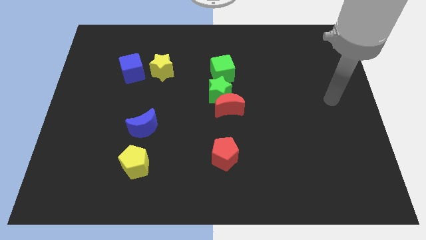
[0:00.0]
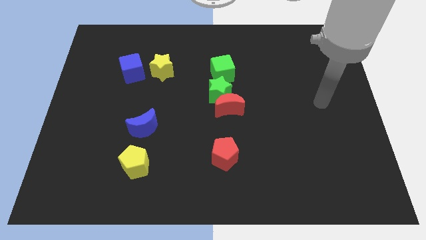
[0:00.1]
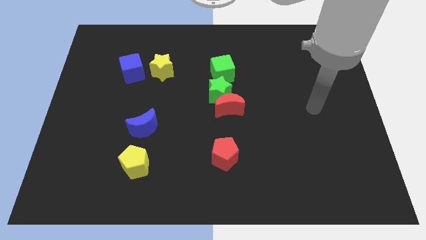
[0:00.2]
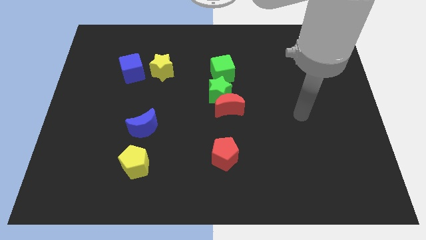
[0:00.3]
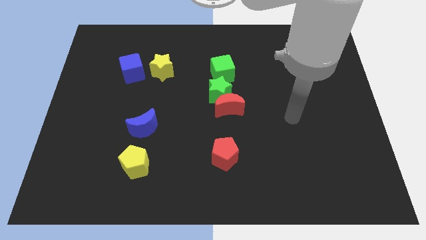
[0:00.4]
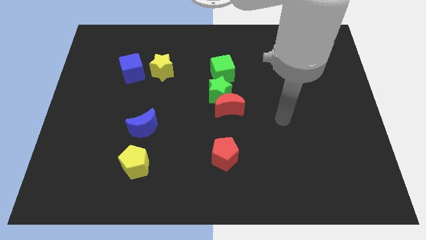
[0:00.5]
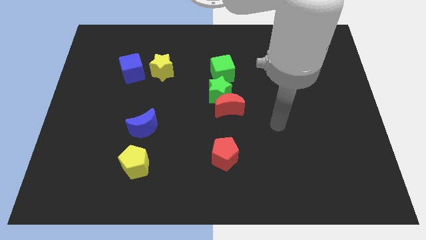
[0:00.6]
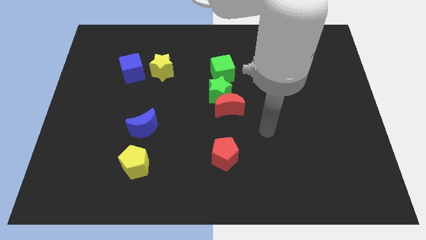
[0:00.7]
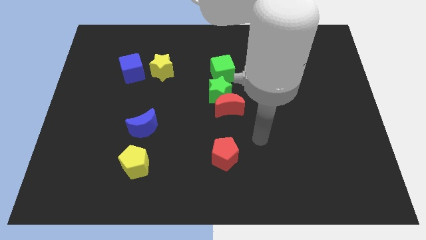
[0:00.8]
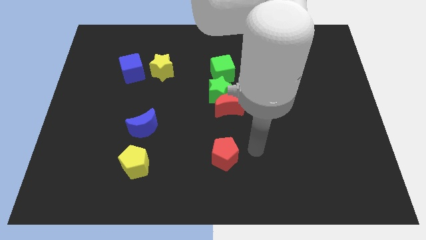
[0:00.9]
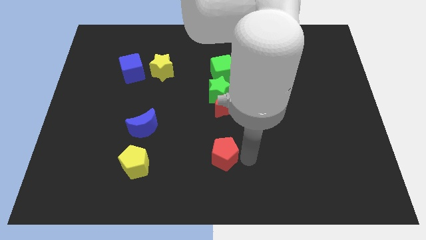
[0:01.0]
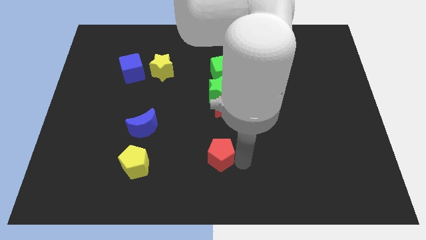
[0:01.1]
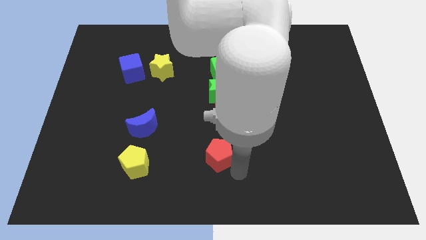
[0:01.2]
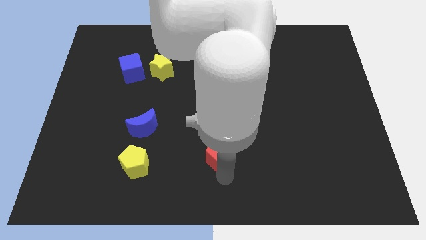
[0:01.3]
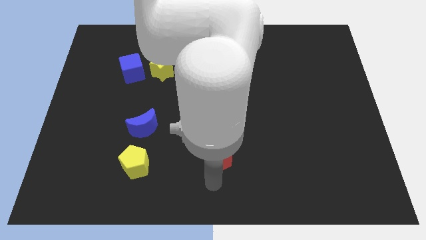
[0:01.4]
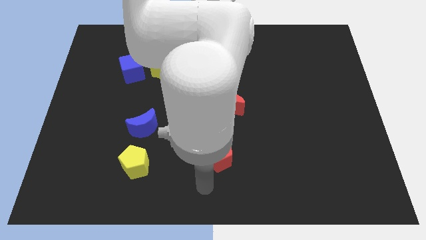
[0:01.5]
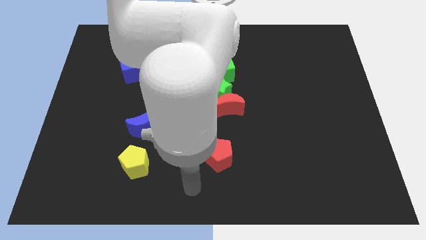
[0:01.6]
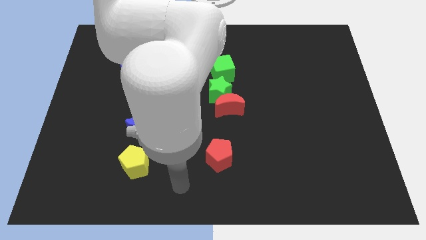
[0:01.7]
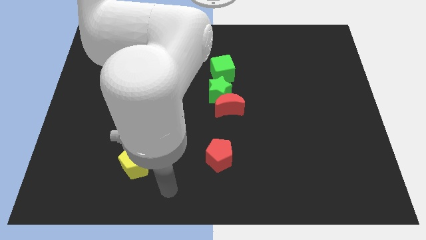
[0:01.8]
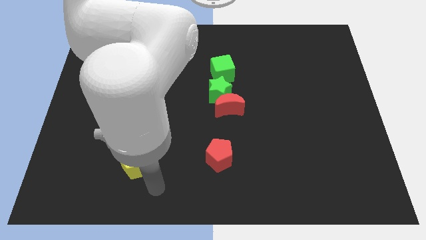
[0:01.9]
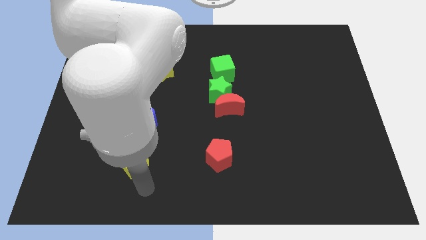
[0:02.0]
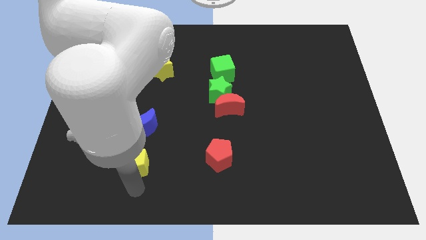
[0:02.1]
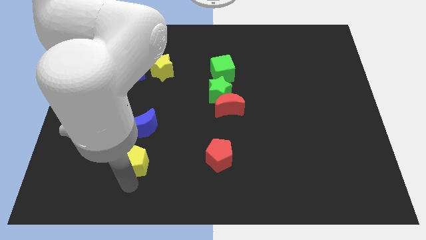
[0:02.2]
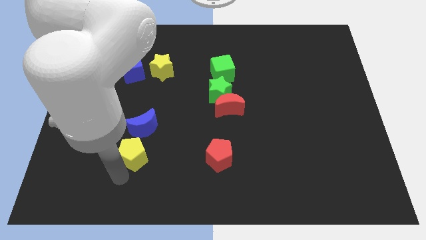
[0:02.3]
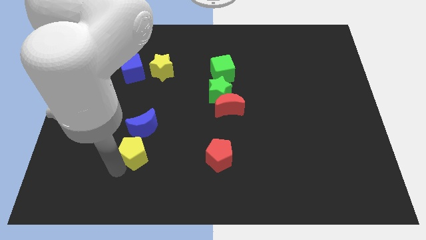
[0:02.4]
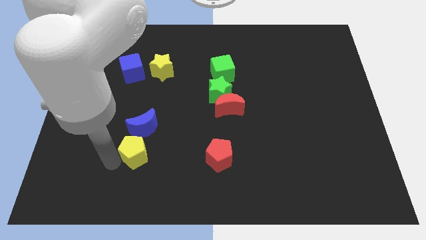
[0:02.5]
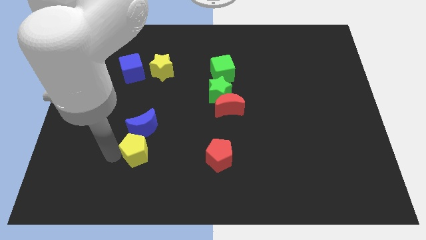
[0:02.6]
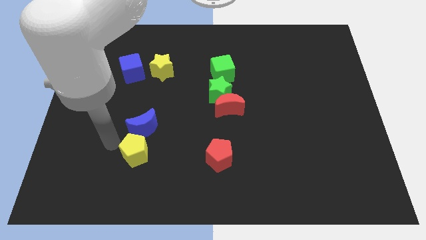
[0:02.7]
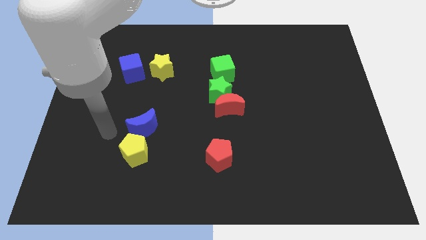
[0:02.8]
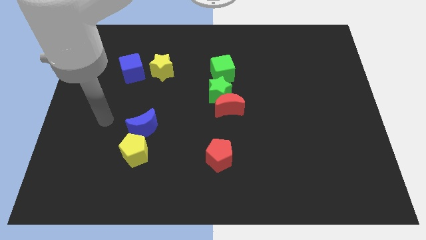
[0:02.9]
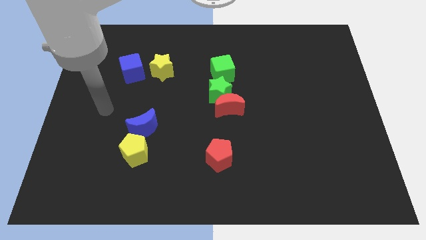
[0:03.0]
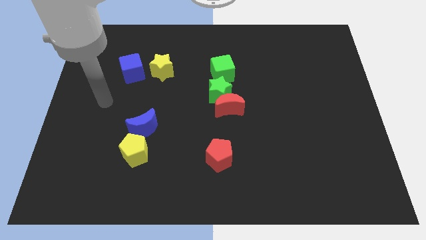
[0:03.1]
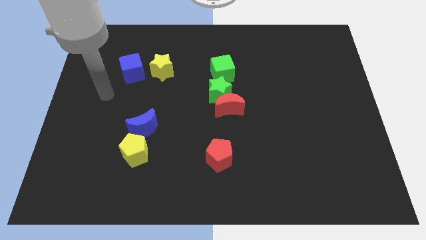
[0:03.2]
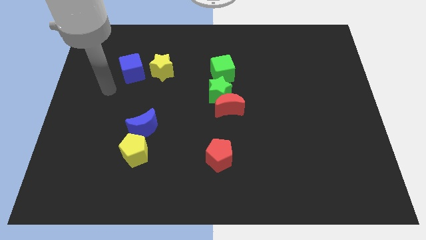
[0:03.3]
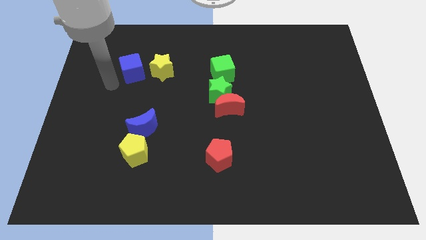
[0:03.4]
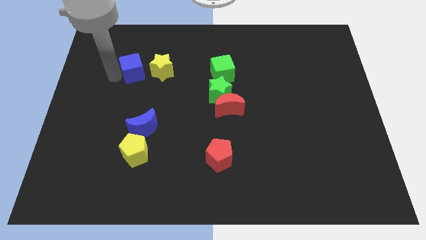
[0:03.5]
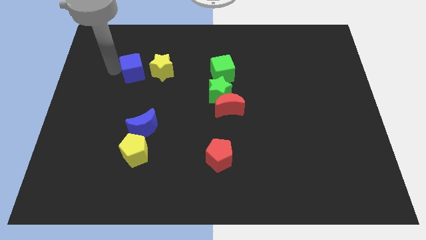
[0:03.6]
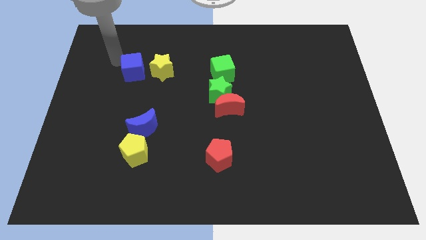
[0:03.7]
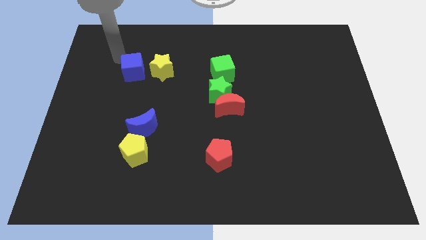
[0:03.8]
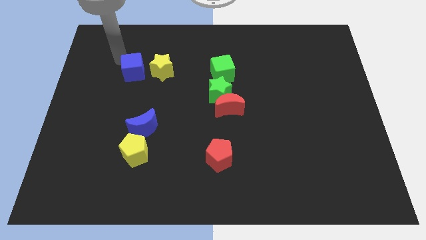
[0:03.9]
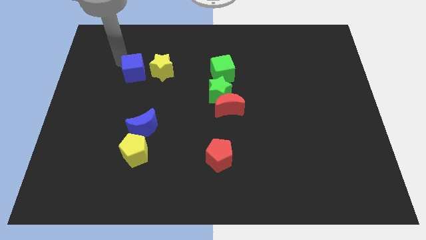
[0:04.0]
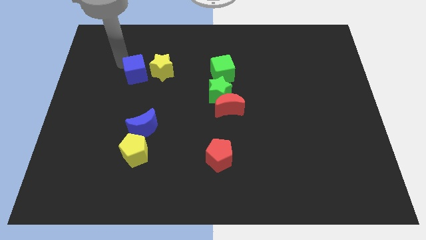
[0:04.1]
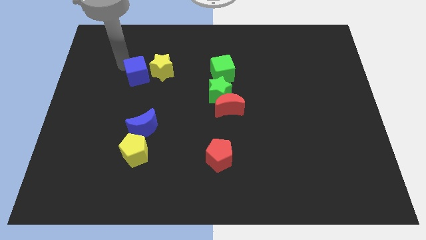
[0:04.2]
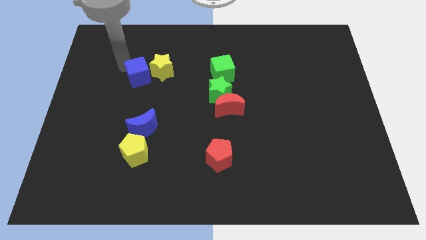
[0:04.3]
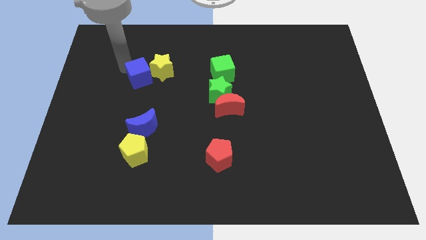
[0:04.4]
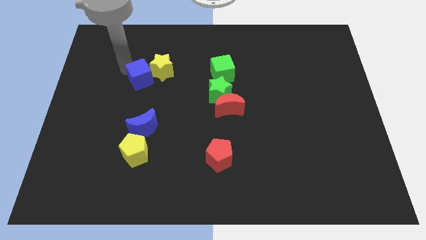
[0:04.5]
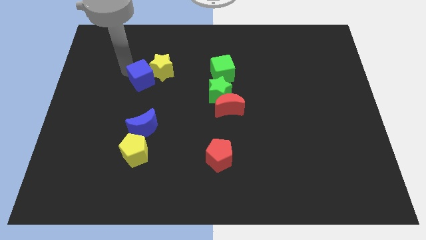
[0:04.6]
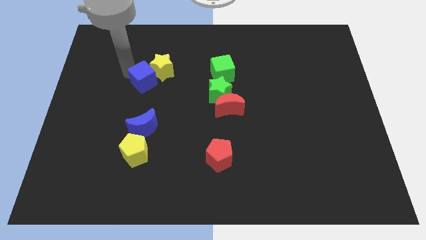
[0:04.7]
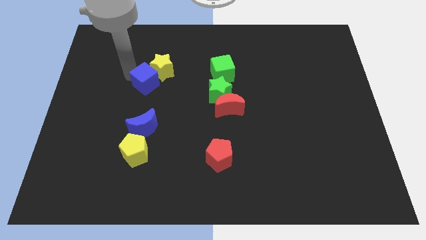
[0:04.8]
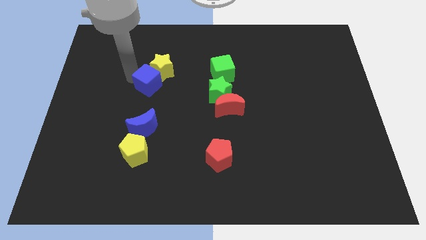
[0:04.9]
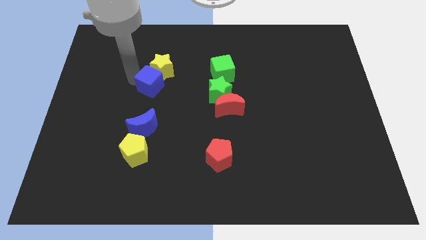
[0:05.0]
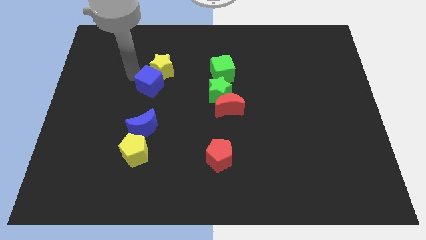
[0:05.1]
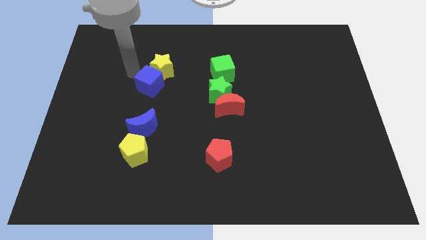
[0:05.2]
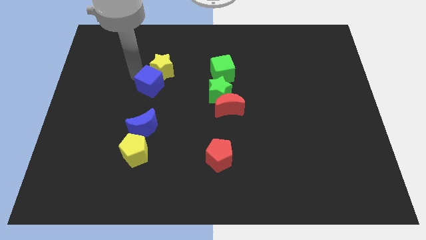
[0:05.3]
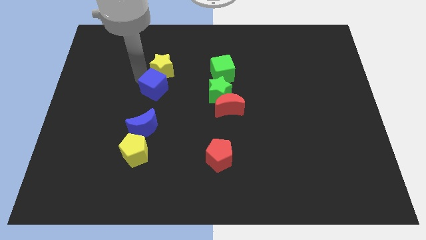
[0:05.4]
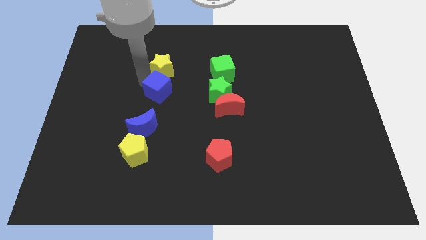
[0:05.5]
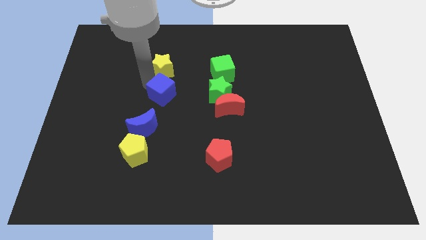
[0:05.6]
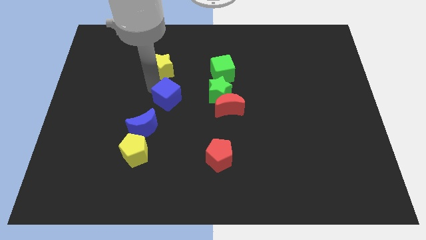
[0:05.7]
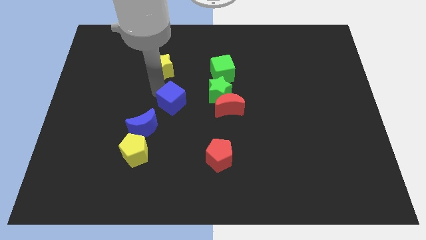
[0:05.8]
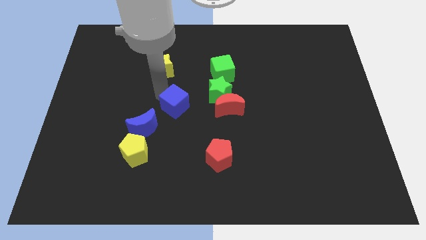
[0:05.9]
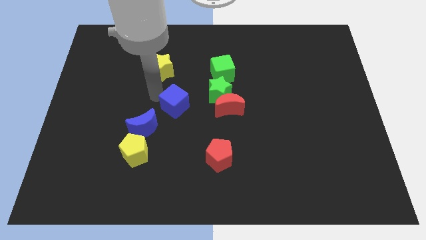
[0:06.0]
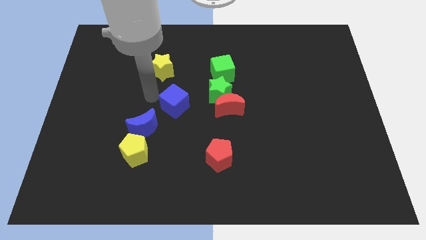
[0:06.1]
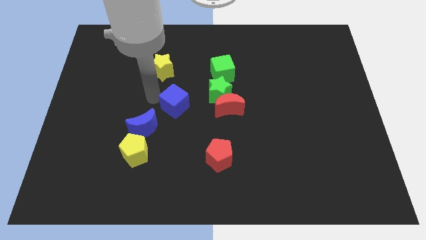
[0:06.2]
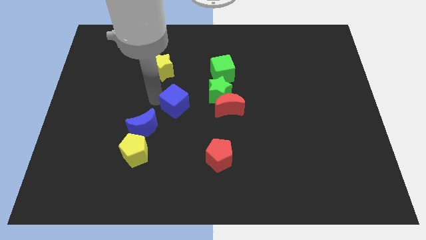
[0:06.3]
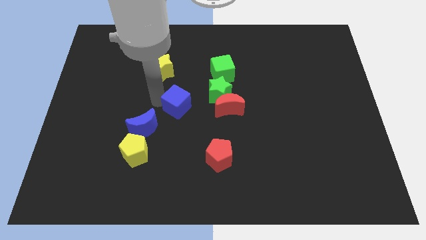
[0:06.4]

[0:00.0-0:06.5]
push the blue cube to the bottom left of the green star

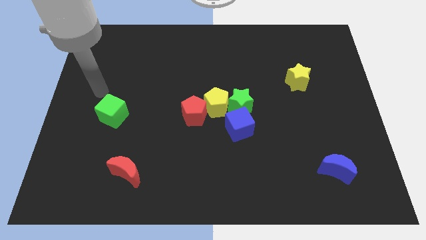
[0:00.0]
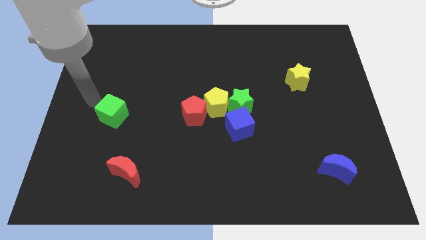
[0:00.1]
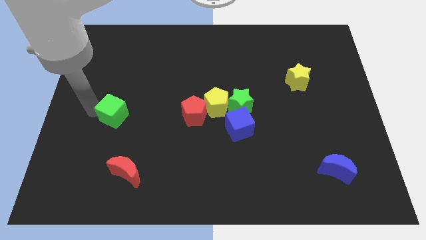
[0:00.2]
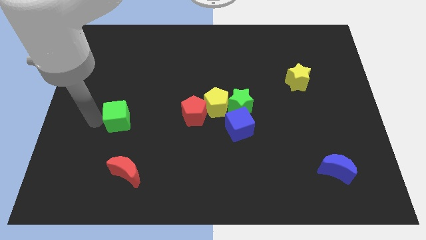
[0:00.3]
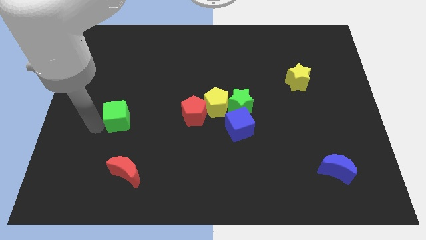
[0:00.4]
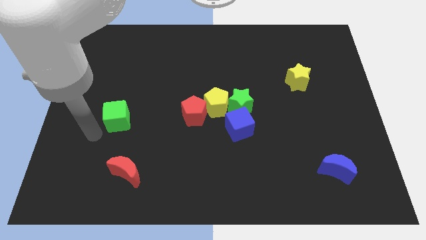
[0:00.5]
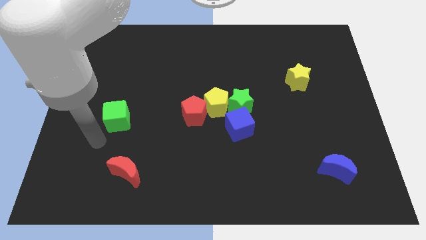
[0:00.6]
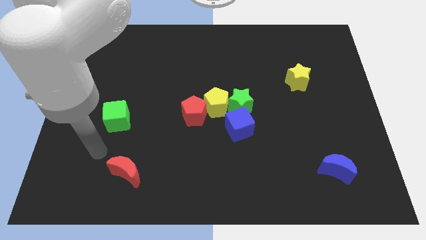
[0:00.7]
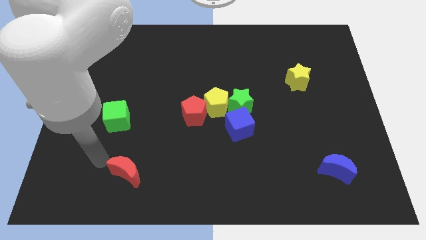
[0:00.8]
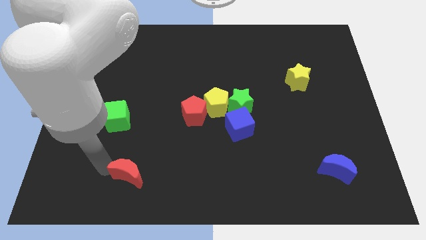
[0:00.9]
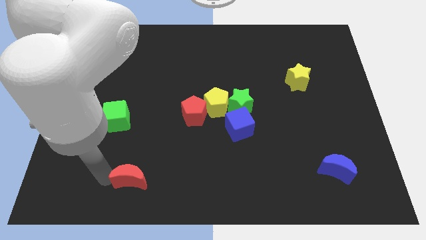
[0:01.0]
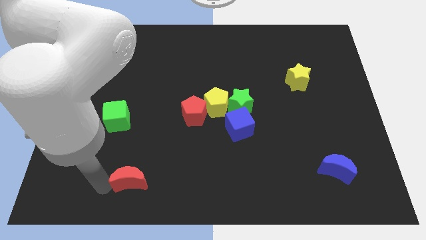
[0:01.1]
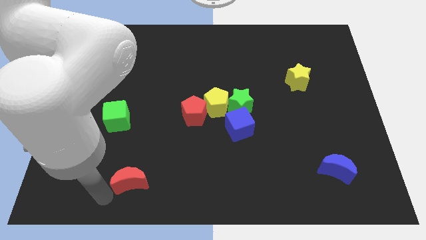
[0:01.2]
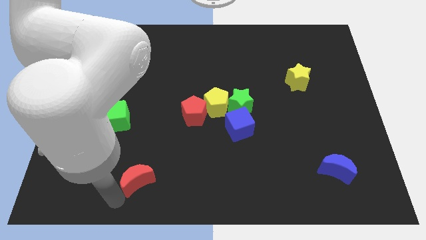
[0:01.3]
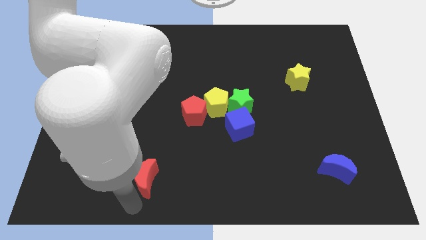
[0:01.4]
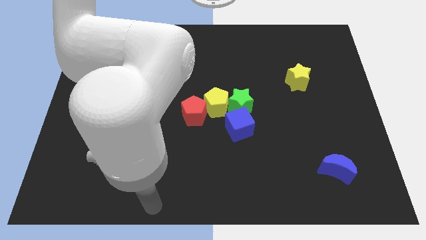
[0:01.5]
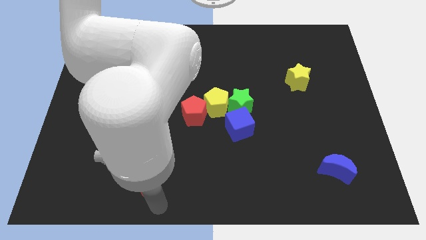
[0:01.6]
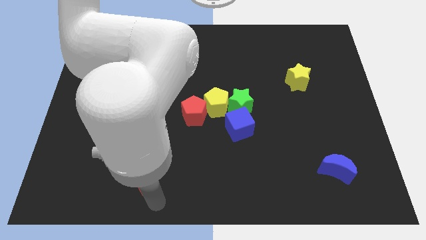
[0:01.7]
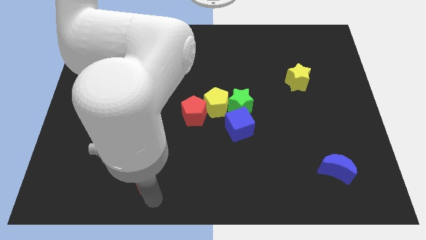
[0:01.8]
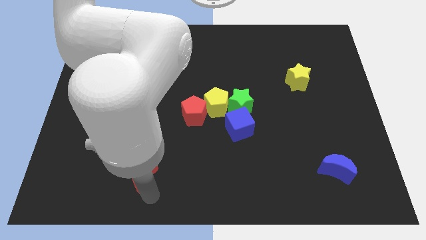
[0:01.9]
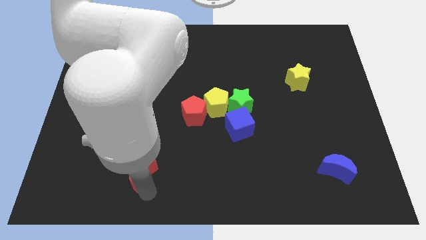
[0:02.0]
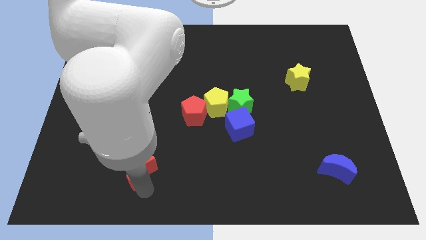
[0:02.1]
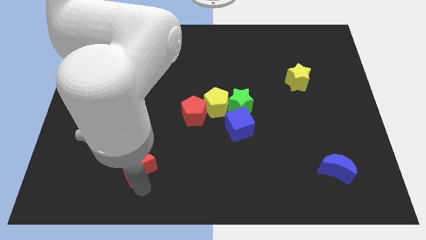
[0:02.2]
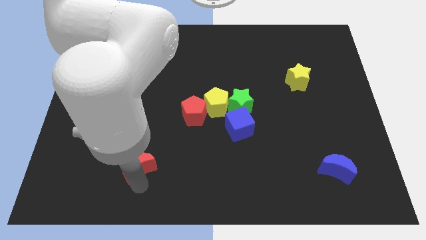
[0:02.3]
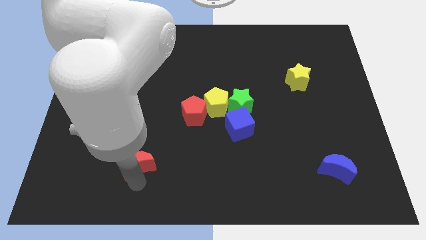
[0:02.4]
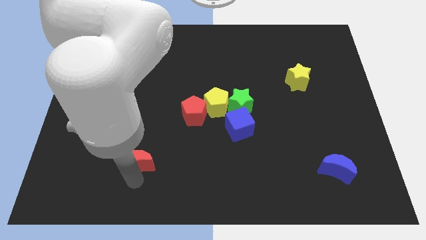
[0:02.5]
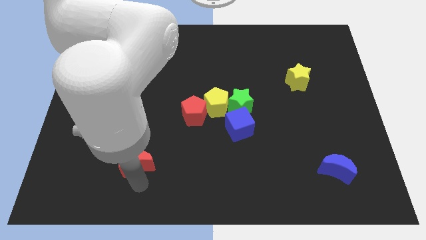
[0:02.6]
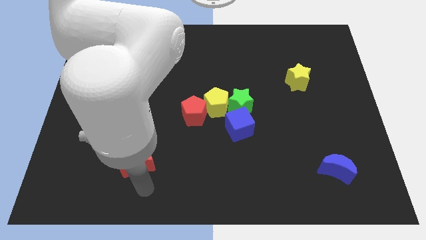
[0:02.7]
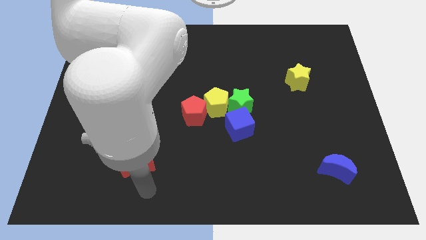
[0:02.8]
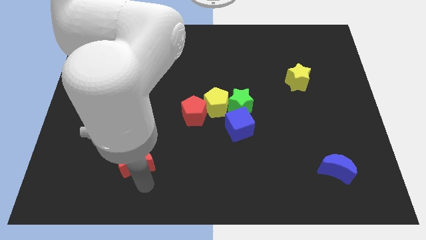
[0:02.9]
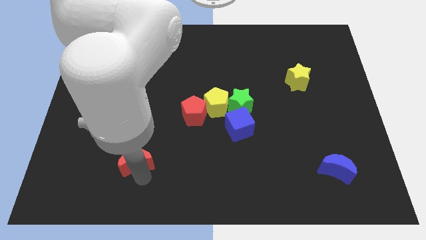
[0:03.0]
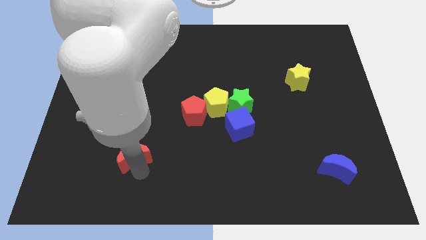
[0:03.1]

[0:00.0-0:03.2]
move the red moon diagonally down and to the right of the green cube
